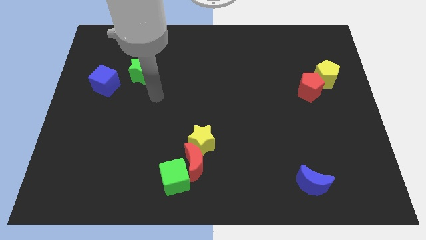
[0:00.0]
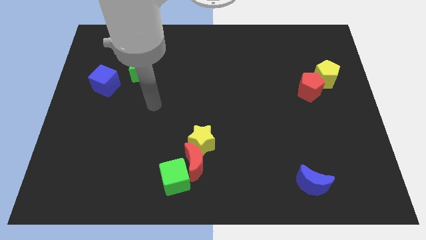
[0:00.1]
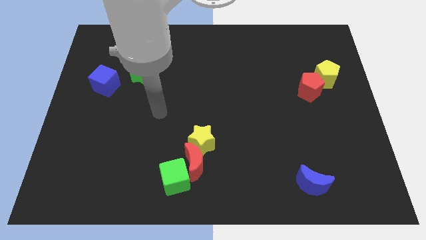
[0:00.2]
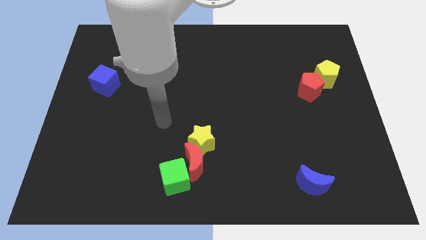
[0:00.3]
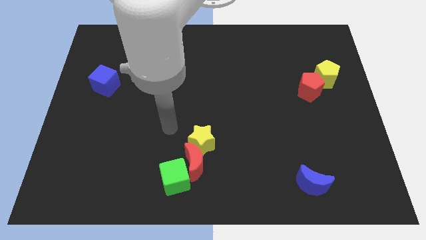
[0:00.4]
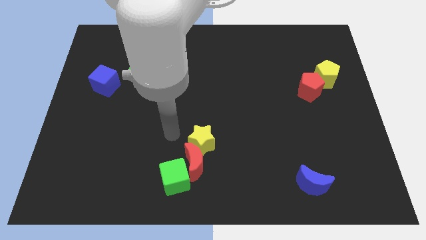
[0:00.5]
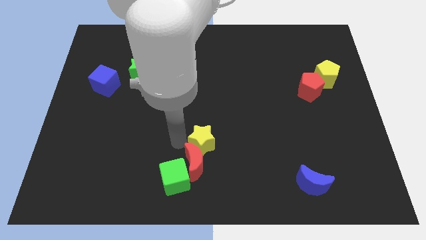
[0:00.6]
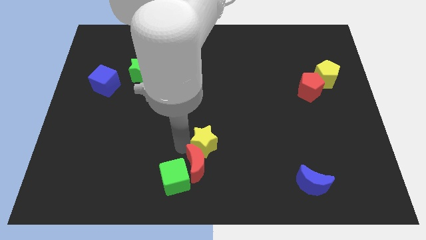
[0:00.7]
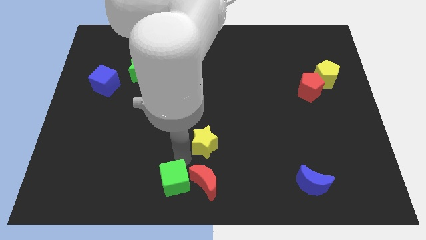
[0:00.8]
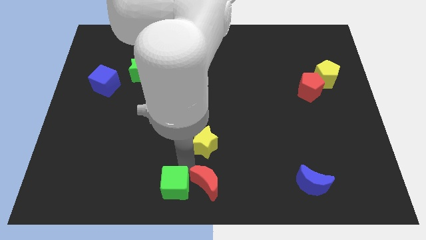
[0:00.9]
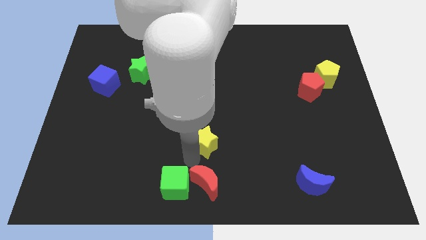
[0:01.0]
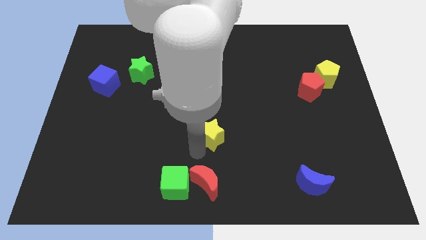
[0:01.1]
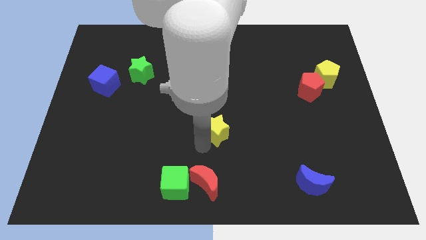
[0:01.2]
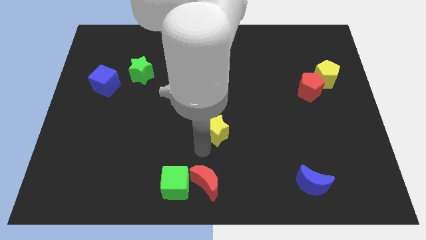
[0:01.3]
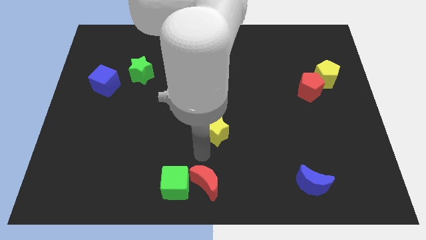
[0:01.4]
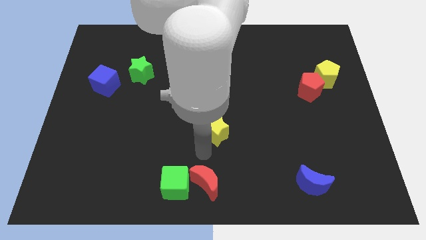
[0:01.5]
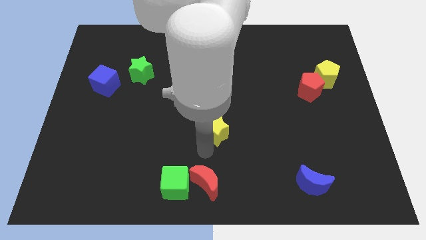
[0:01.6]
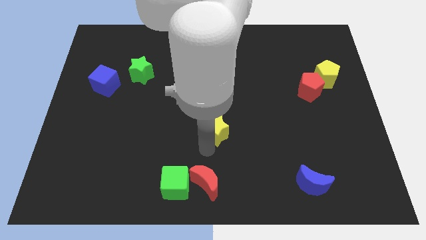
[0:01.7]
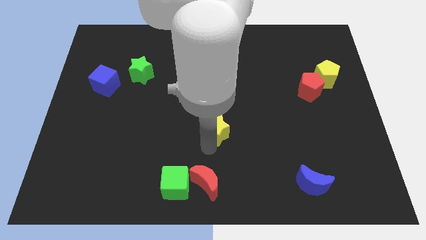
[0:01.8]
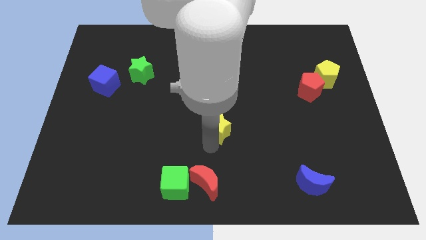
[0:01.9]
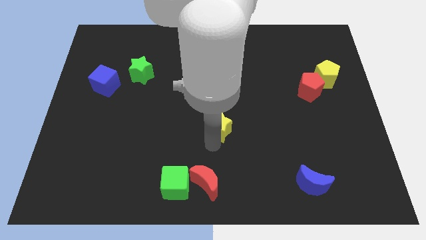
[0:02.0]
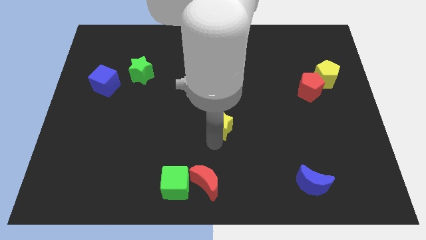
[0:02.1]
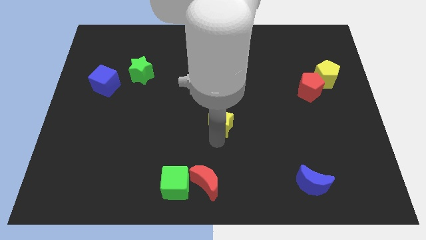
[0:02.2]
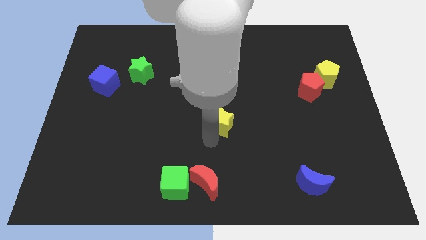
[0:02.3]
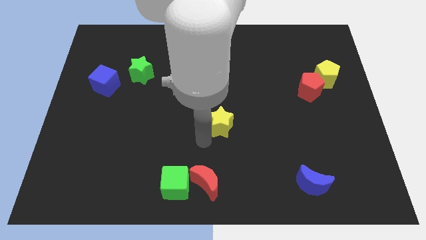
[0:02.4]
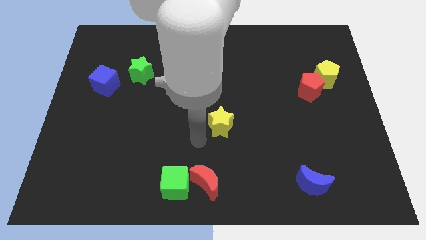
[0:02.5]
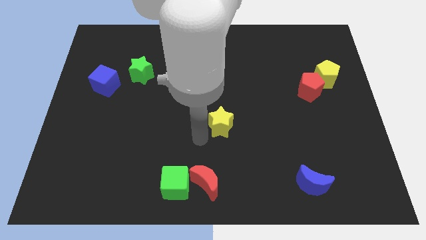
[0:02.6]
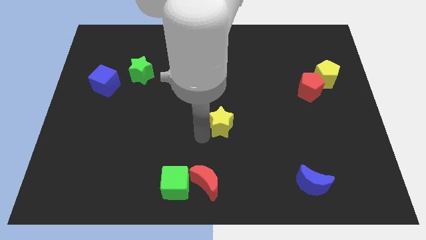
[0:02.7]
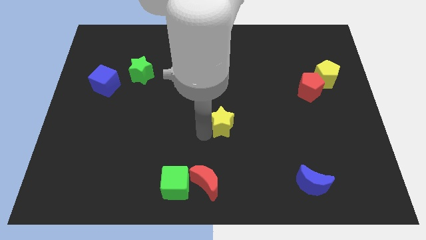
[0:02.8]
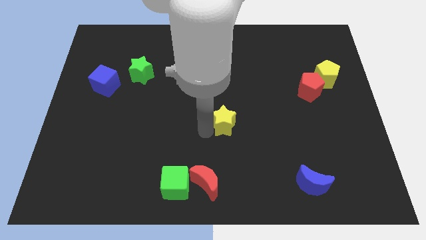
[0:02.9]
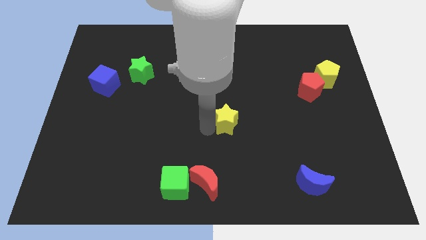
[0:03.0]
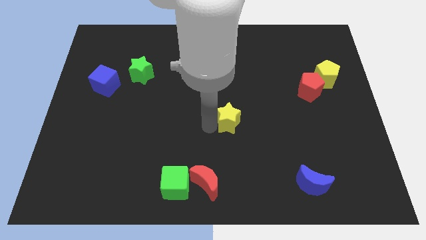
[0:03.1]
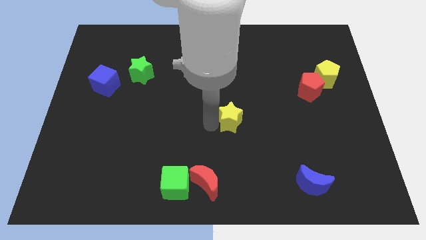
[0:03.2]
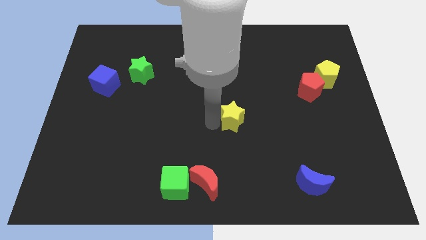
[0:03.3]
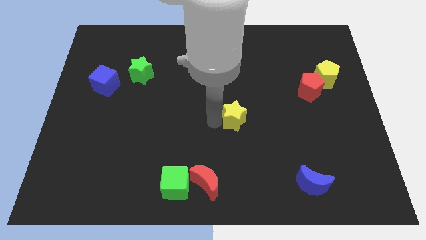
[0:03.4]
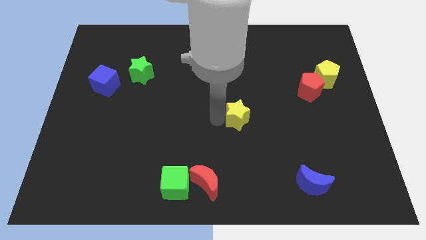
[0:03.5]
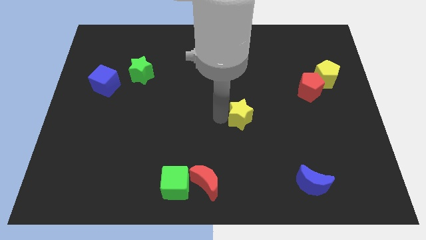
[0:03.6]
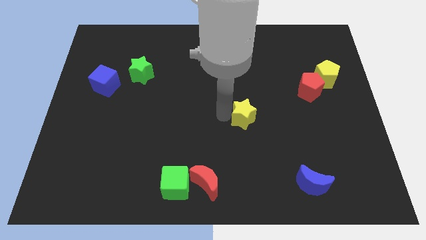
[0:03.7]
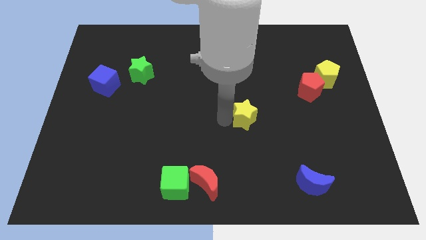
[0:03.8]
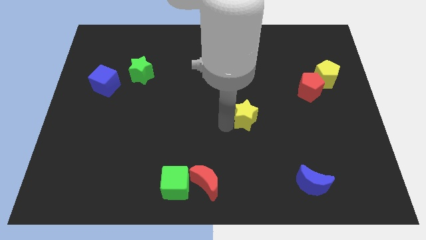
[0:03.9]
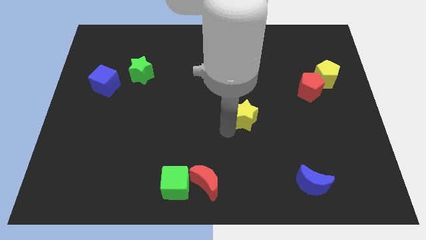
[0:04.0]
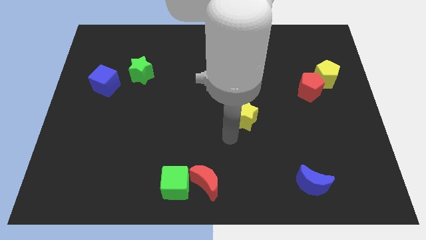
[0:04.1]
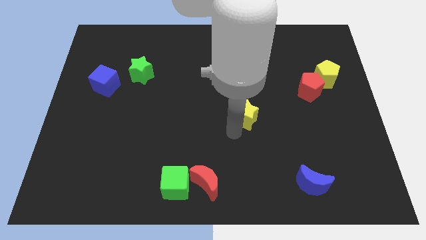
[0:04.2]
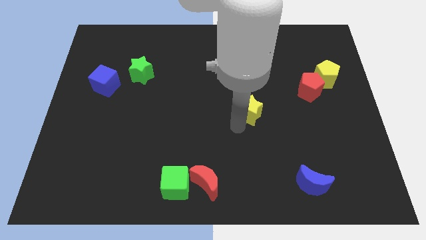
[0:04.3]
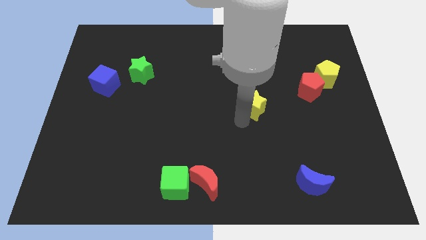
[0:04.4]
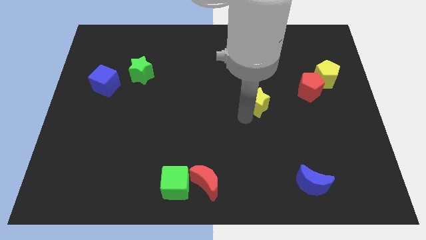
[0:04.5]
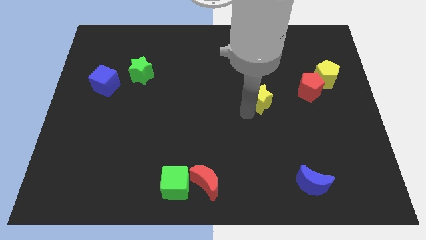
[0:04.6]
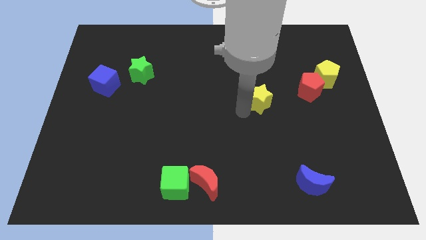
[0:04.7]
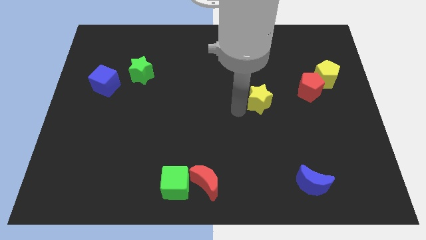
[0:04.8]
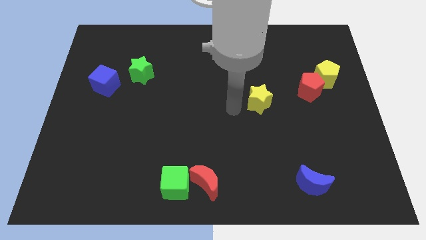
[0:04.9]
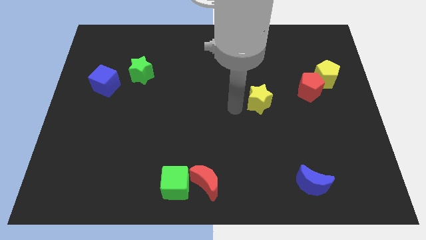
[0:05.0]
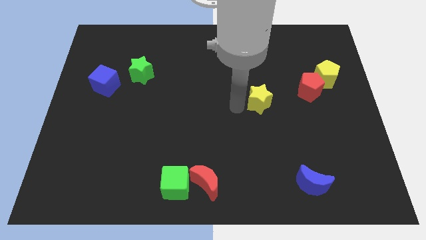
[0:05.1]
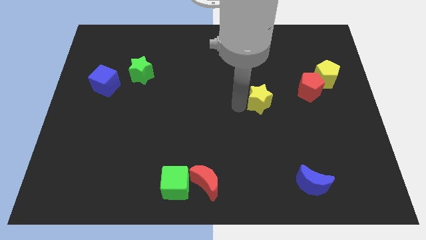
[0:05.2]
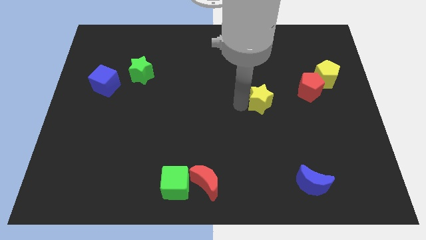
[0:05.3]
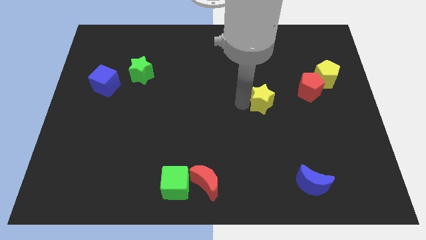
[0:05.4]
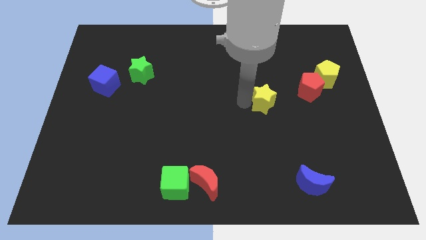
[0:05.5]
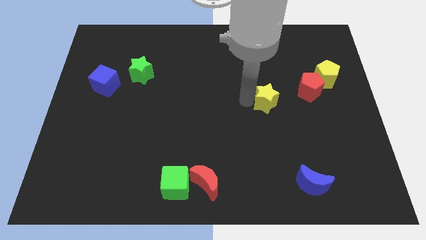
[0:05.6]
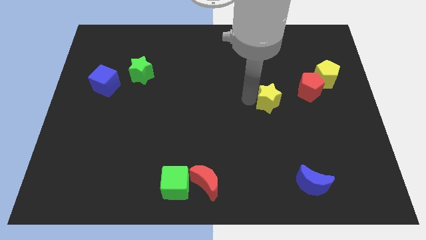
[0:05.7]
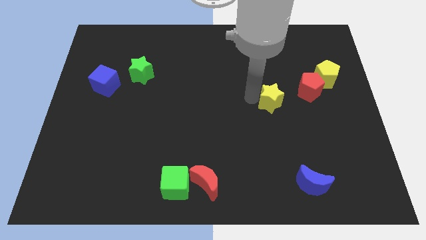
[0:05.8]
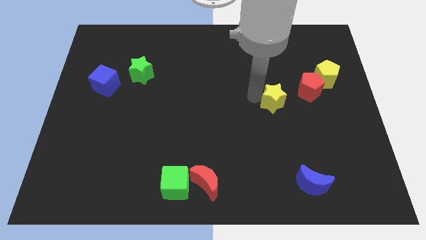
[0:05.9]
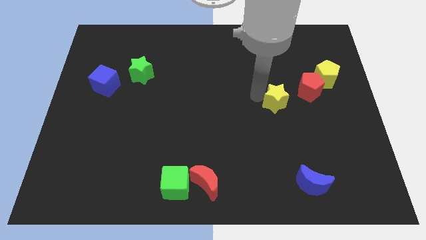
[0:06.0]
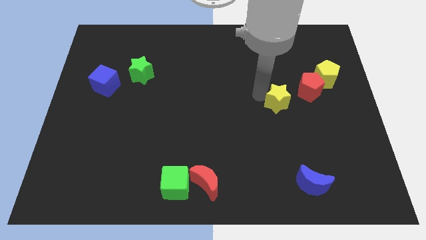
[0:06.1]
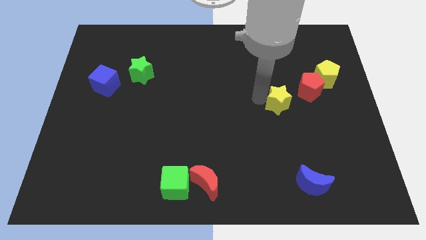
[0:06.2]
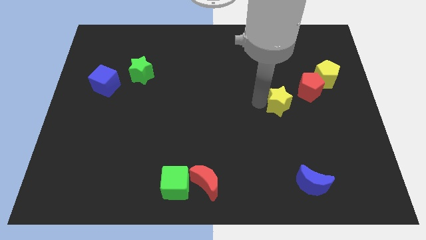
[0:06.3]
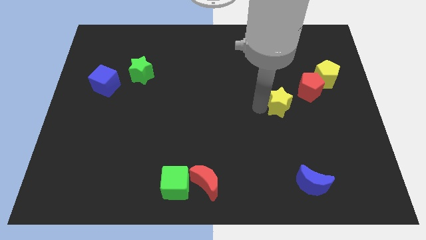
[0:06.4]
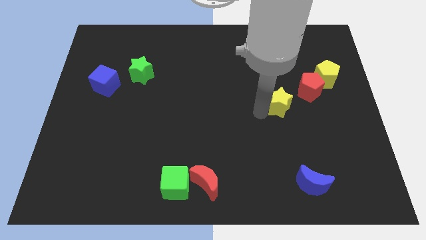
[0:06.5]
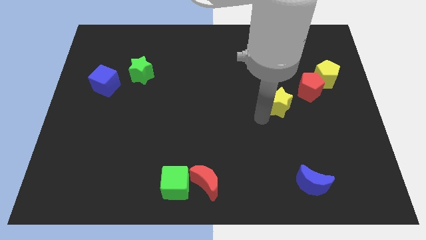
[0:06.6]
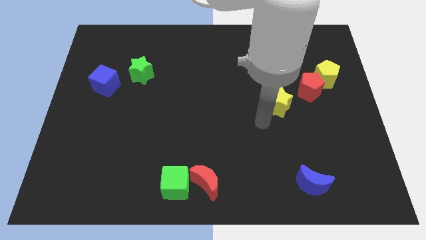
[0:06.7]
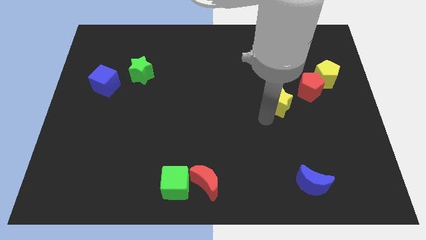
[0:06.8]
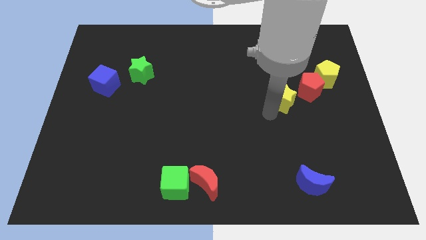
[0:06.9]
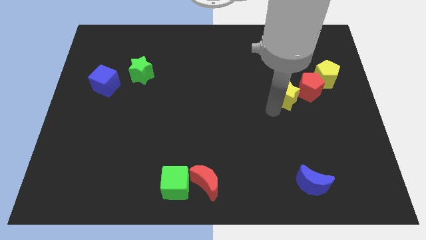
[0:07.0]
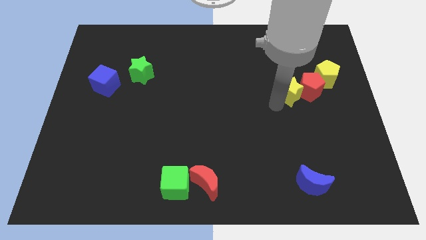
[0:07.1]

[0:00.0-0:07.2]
put the yellow star next to the red pentagon
